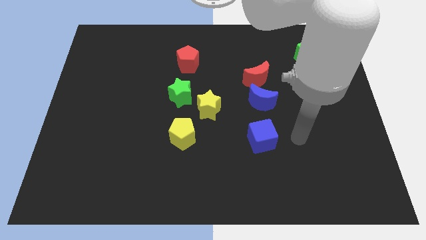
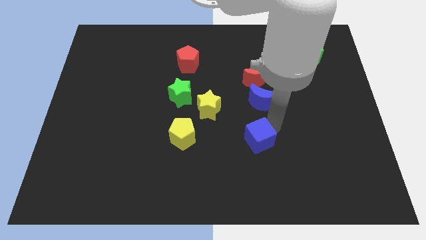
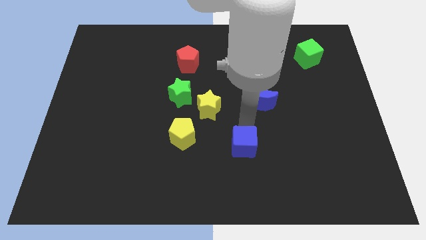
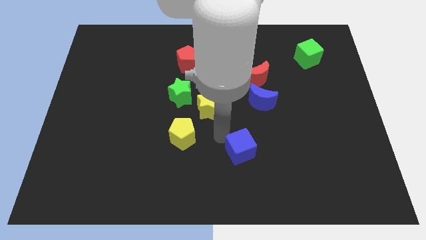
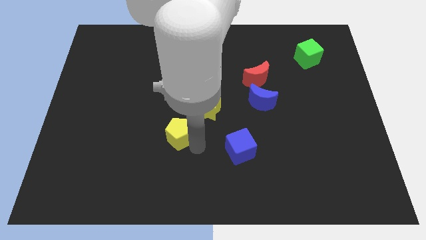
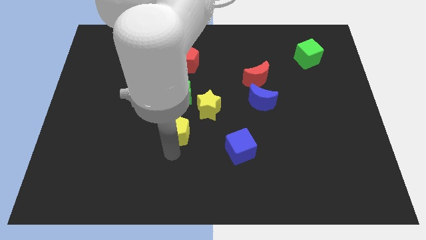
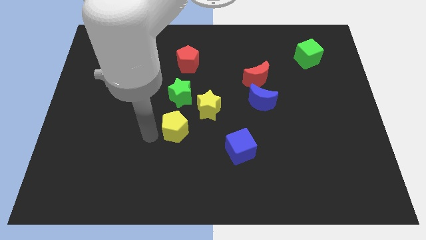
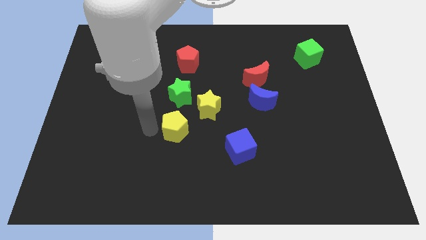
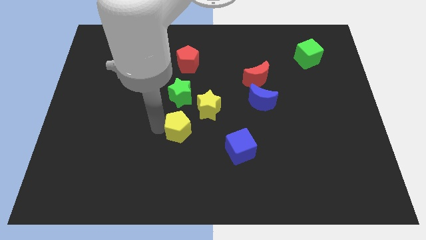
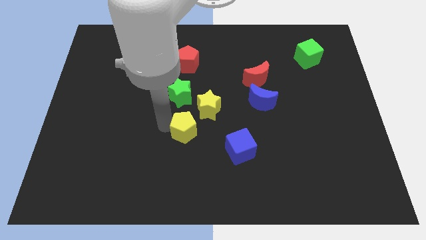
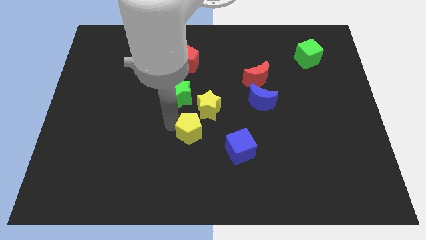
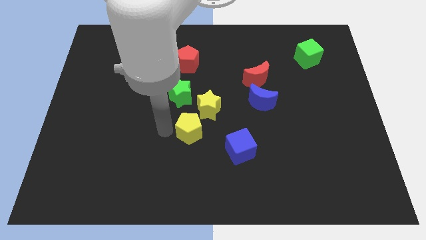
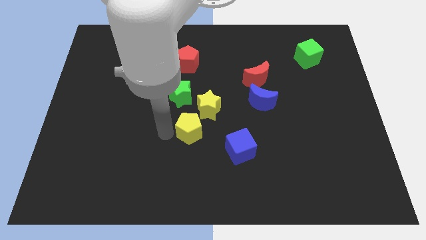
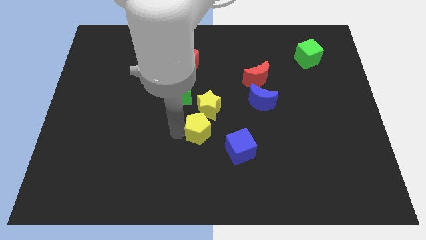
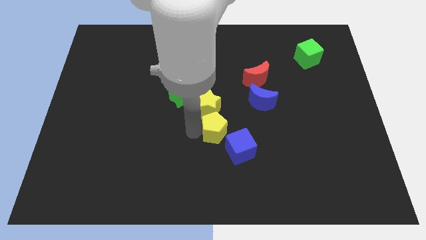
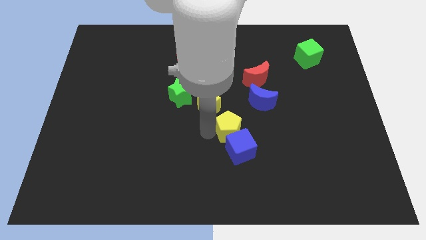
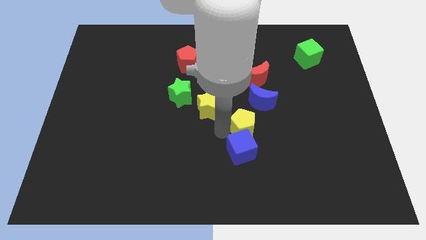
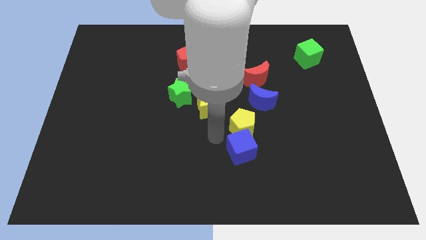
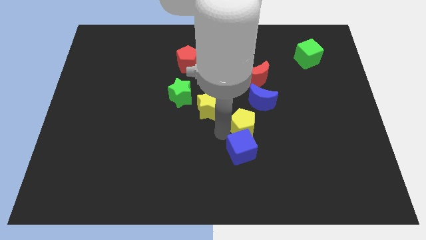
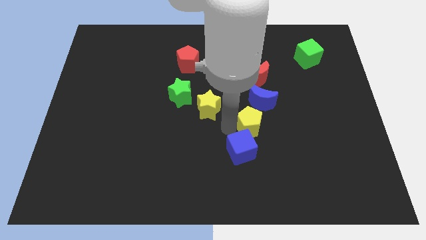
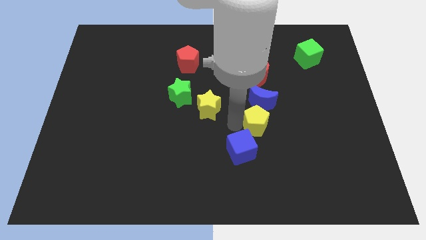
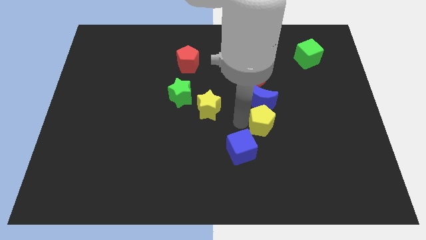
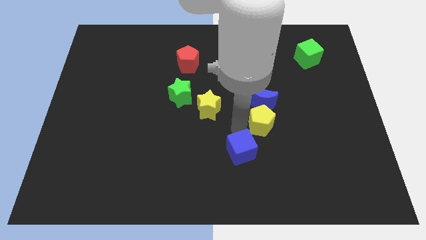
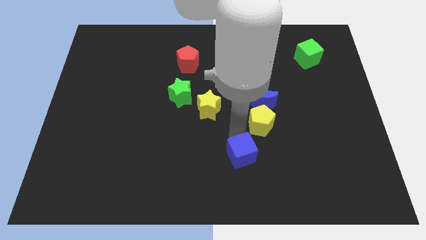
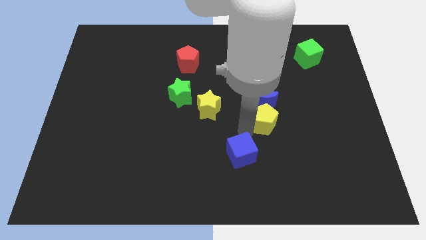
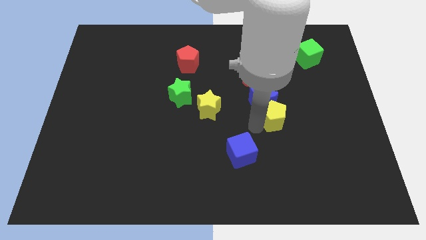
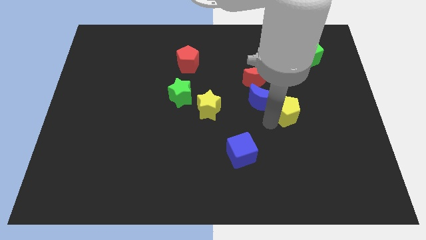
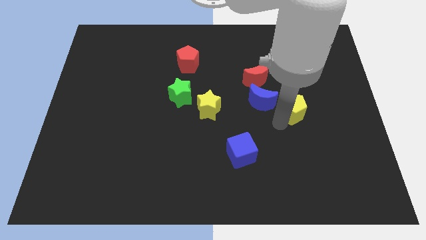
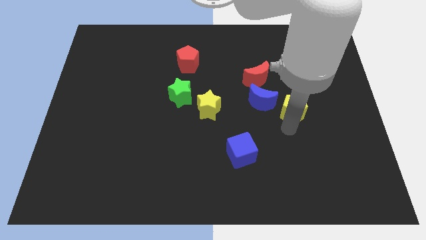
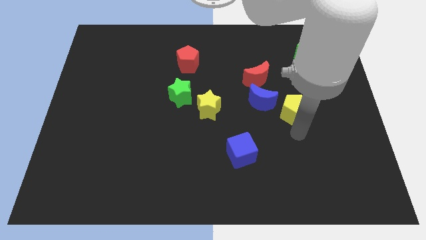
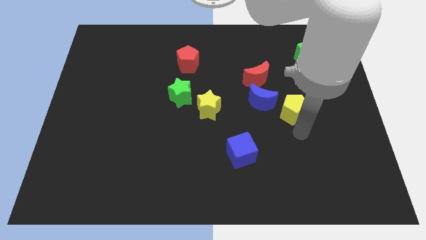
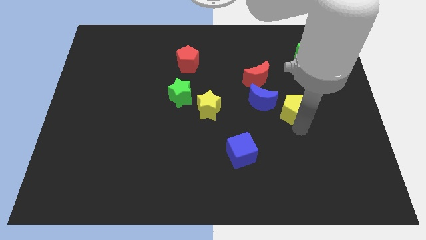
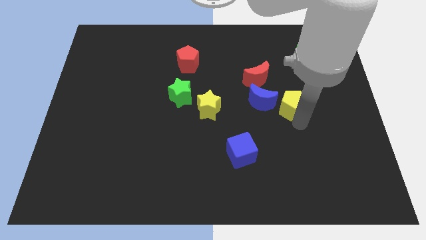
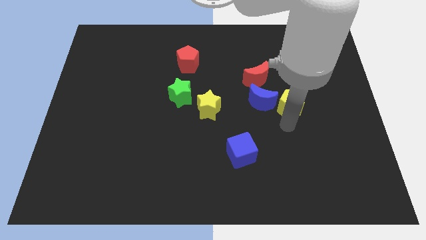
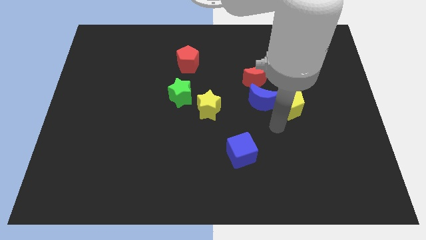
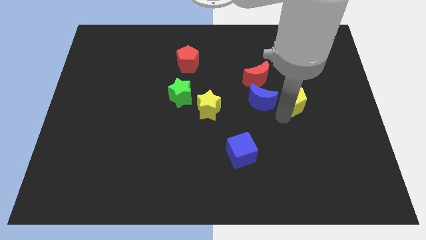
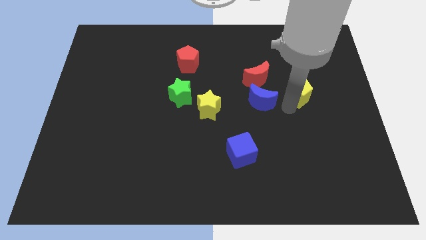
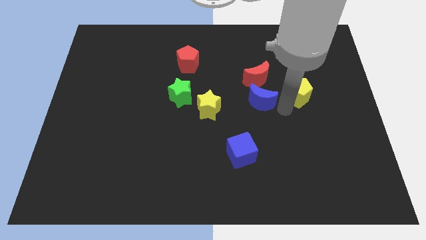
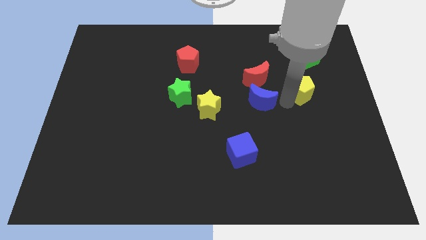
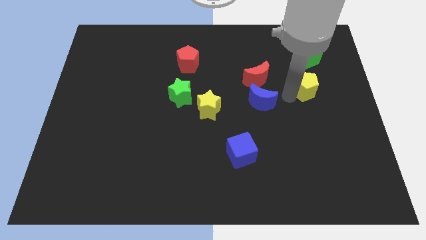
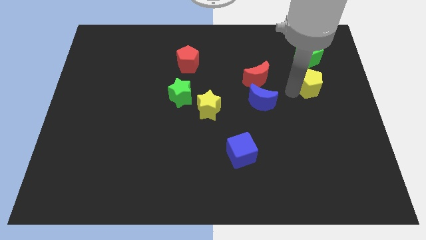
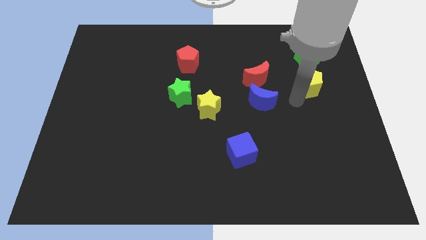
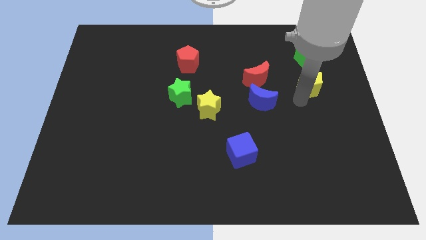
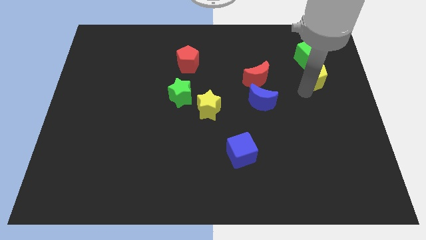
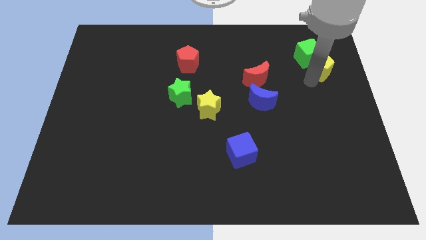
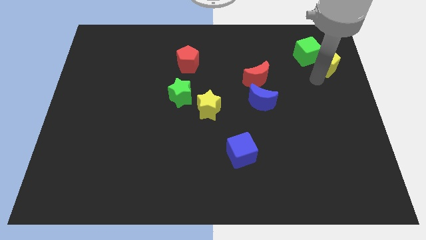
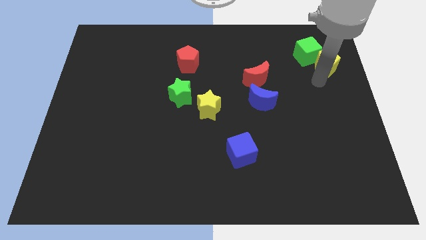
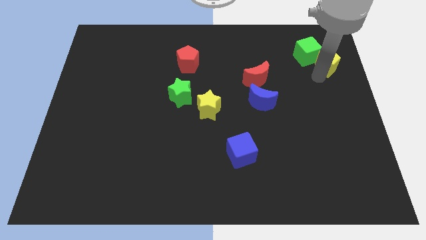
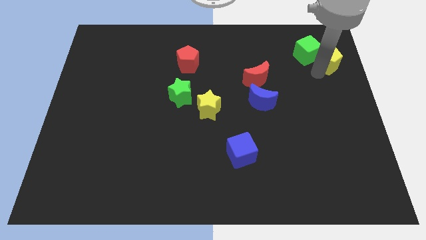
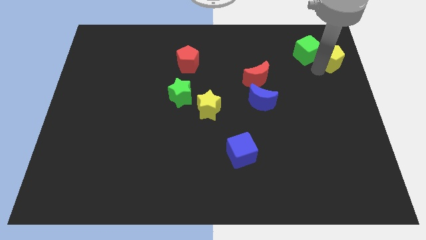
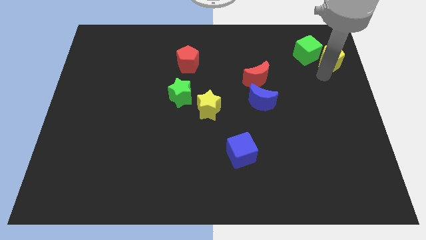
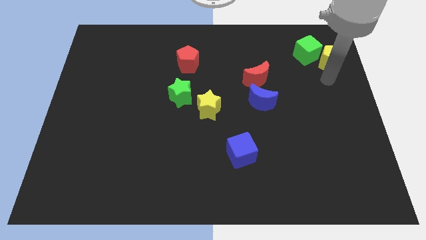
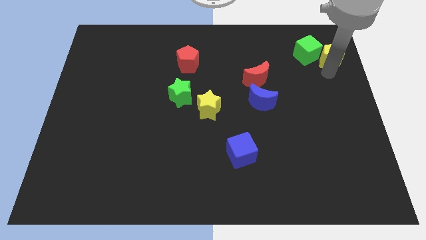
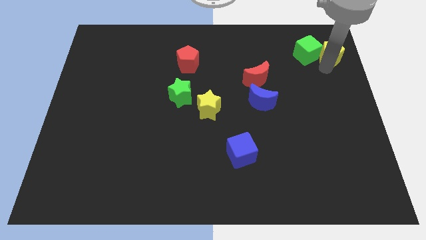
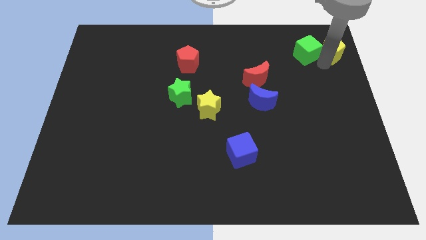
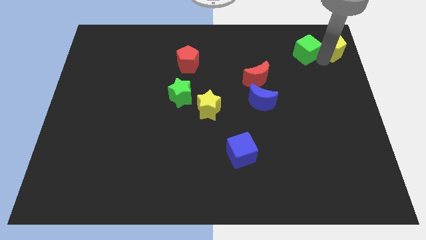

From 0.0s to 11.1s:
push the yellow pentagon to the top right of the board

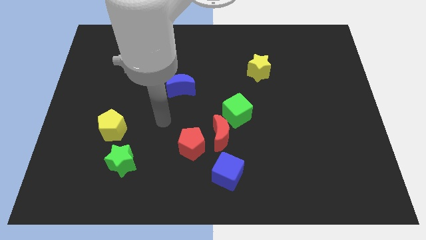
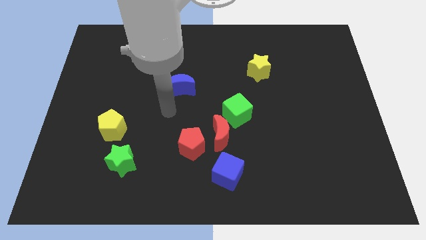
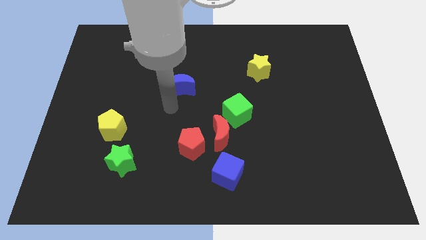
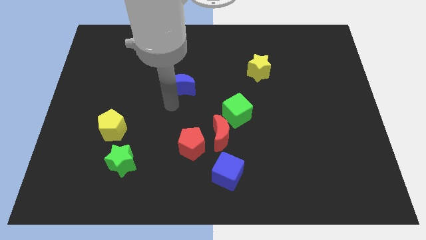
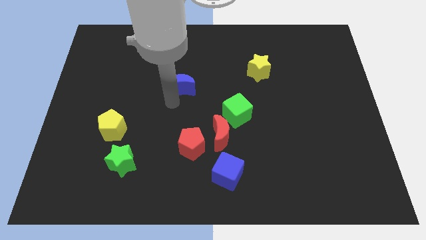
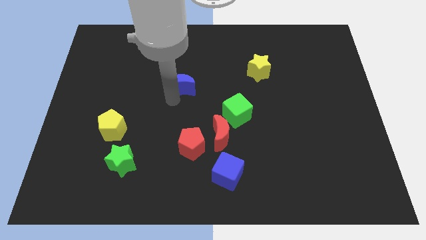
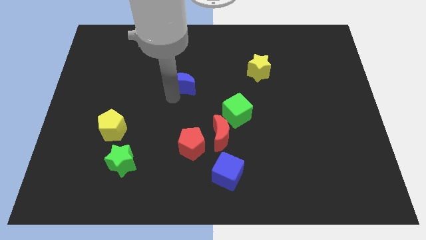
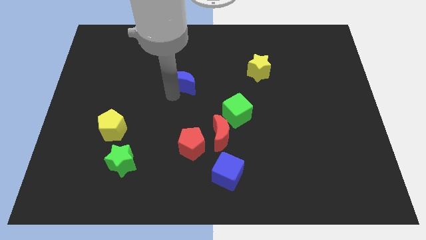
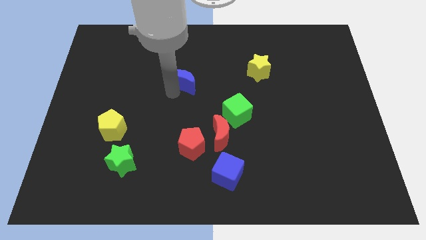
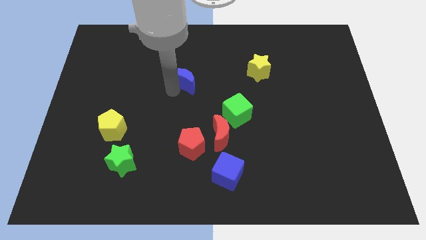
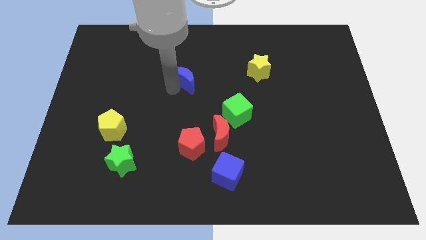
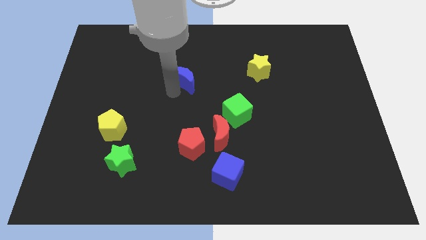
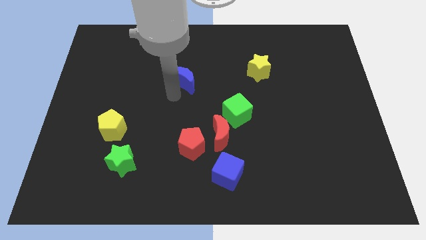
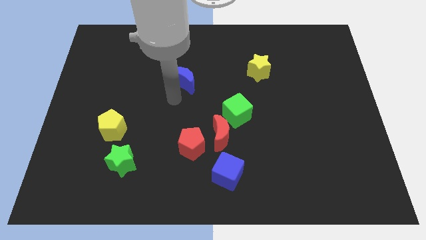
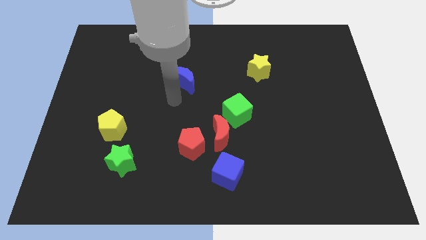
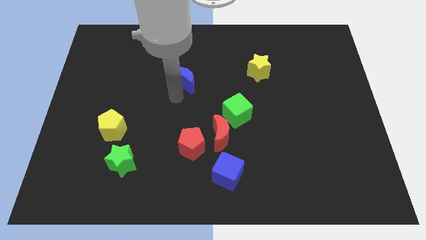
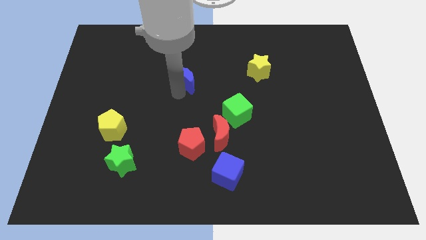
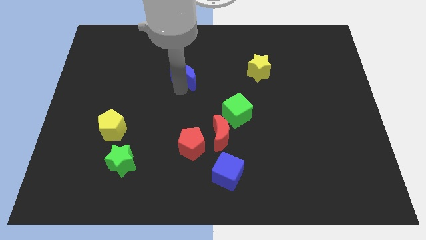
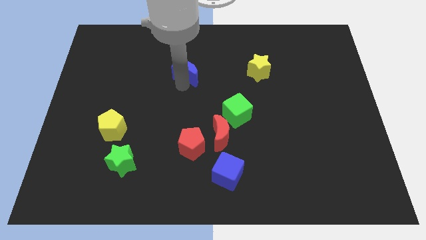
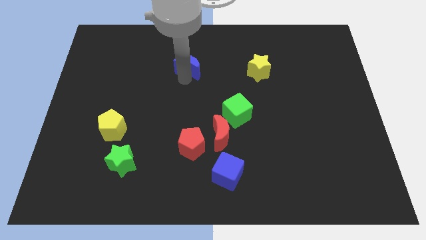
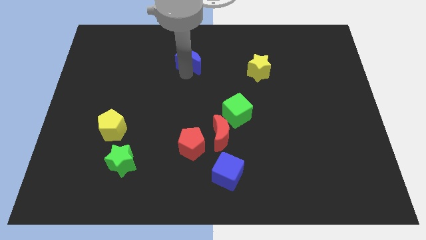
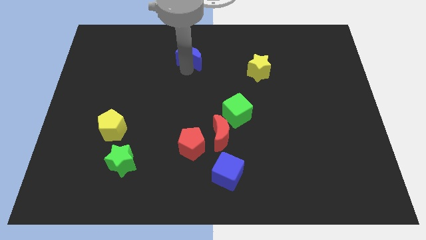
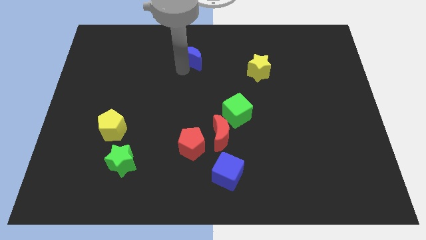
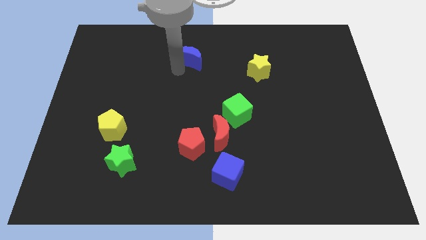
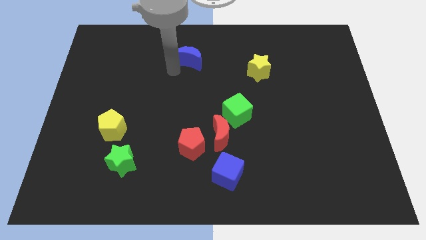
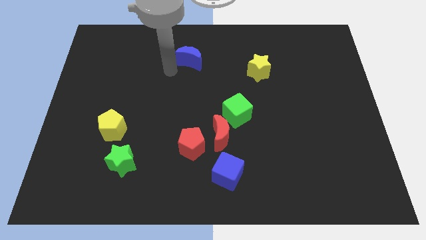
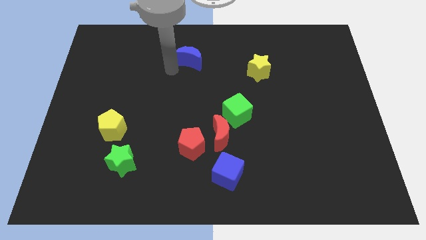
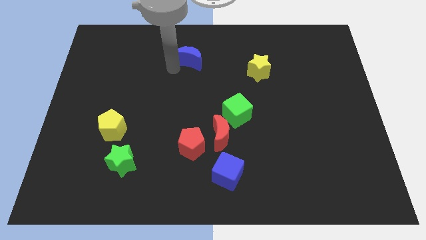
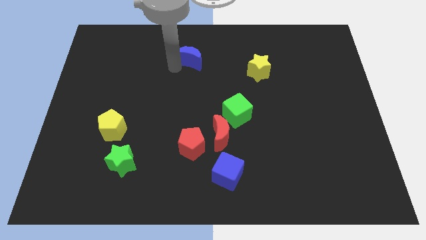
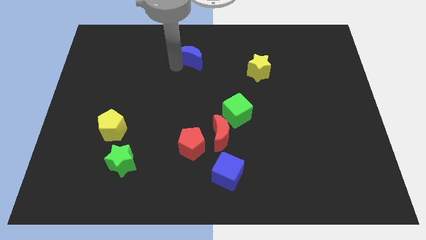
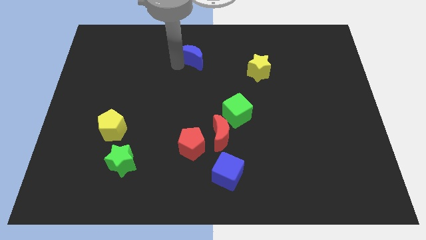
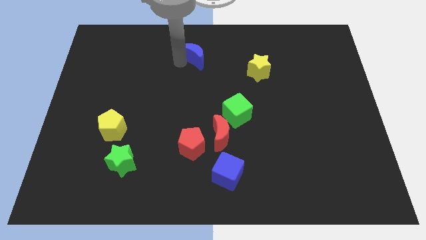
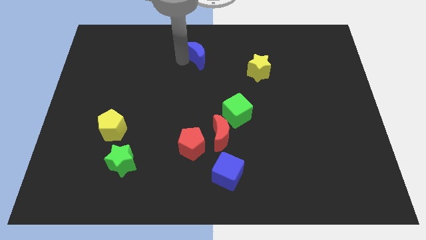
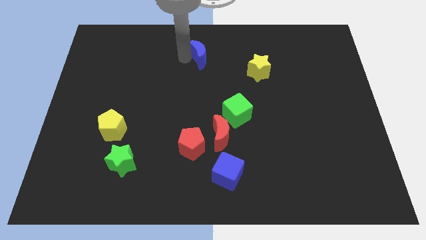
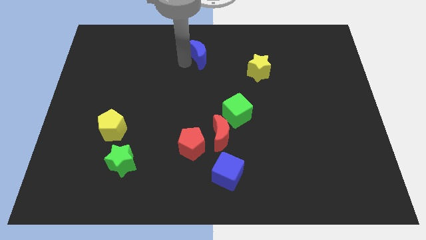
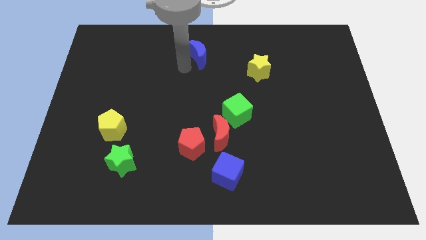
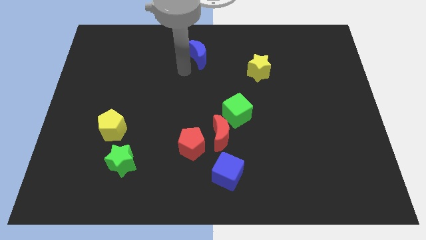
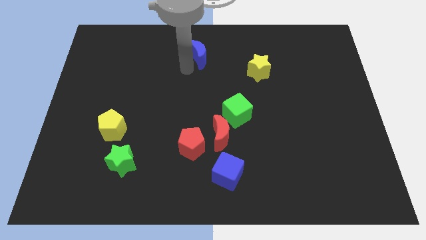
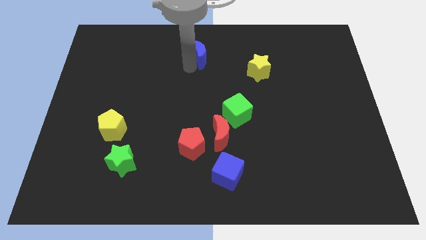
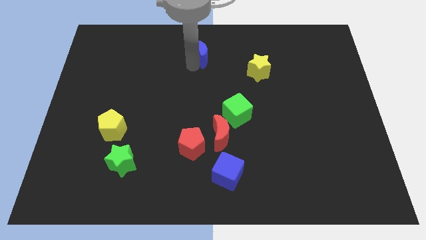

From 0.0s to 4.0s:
slide the blue moon to the top side
